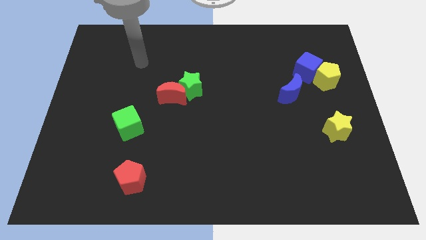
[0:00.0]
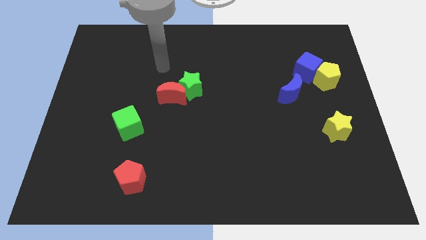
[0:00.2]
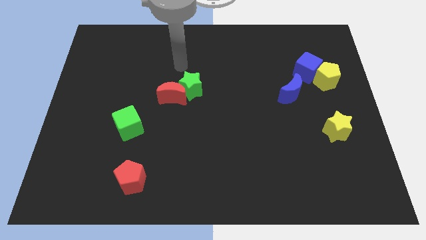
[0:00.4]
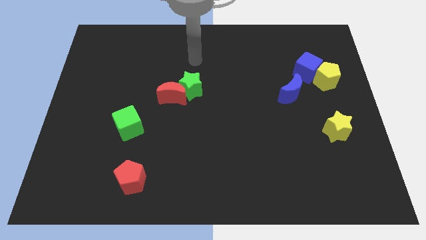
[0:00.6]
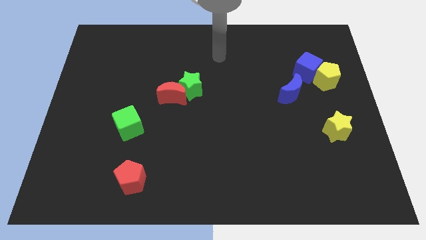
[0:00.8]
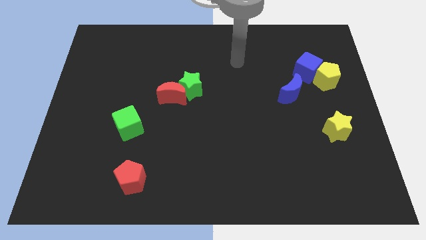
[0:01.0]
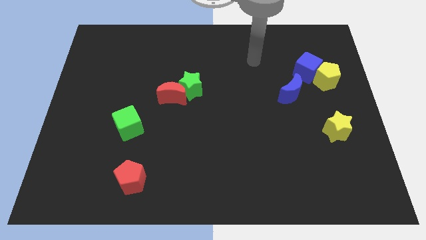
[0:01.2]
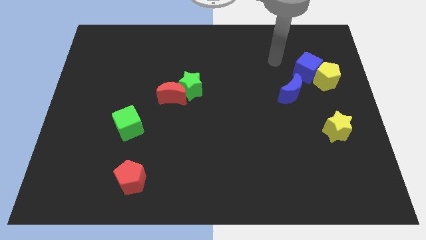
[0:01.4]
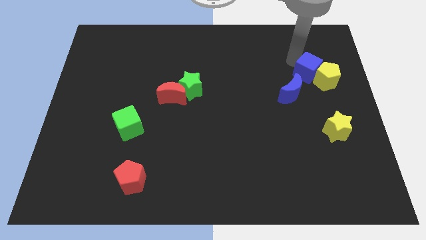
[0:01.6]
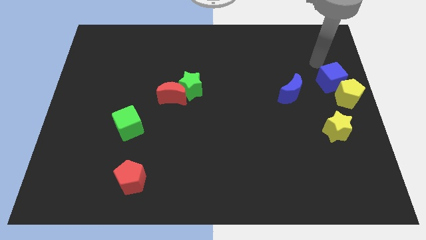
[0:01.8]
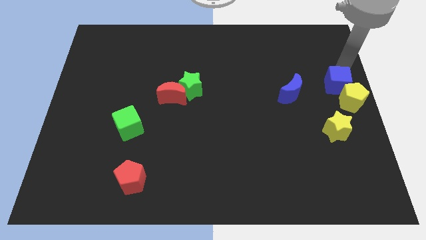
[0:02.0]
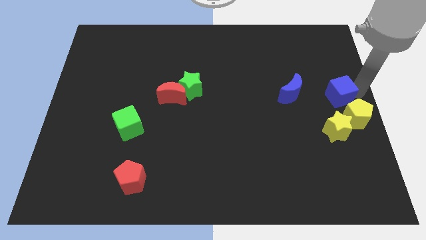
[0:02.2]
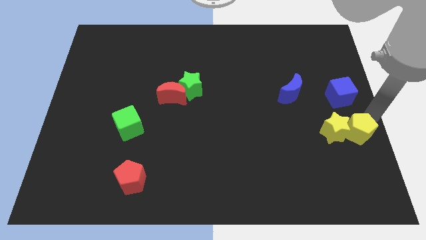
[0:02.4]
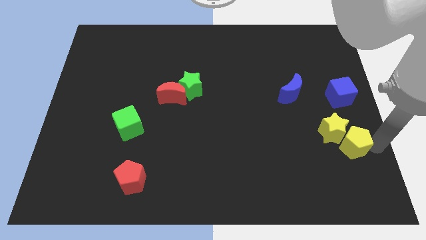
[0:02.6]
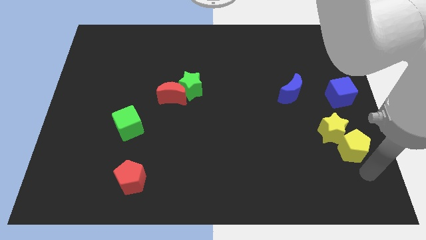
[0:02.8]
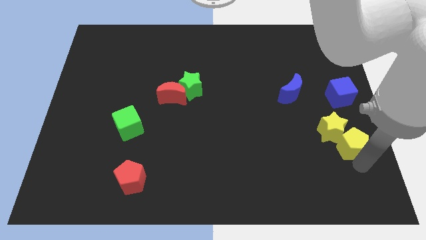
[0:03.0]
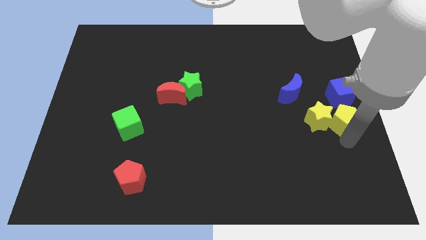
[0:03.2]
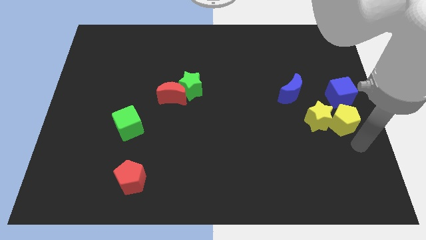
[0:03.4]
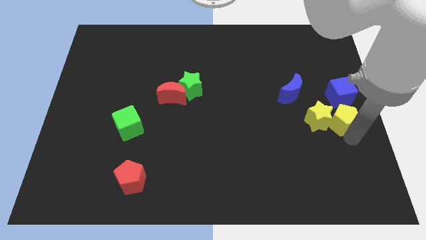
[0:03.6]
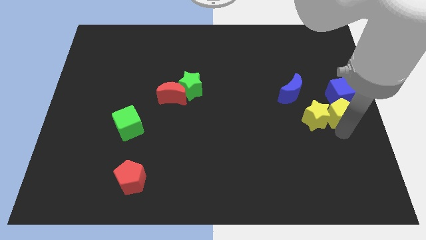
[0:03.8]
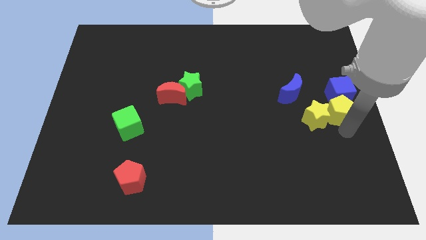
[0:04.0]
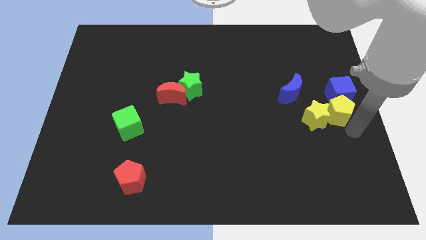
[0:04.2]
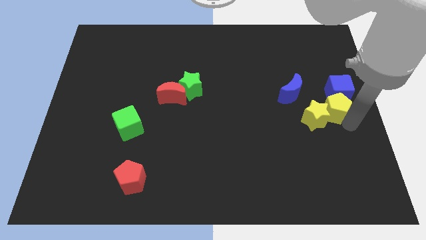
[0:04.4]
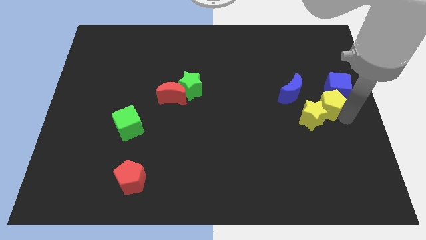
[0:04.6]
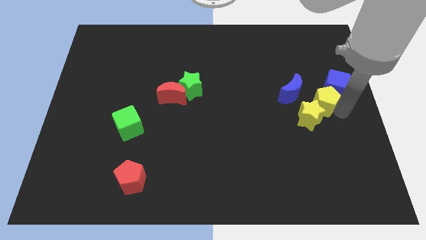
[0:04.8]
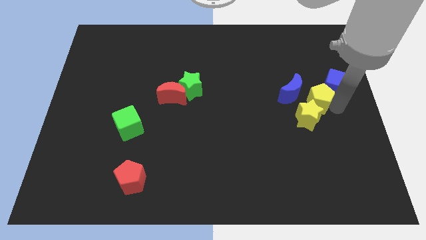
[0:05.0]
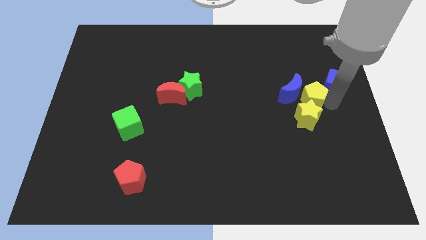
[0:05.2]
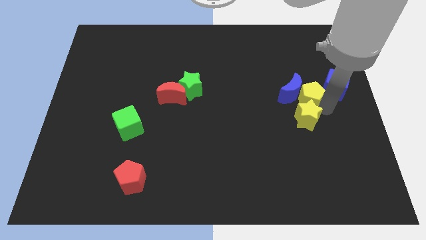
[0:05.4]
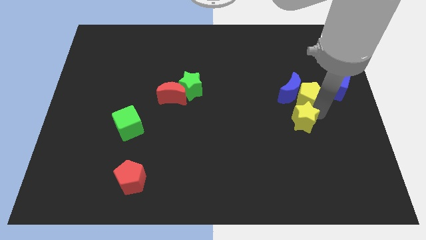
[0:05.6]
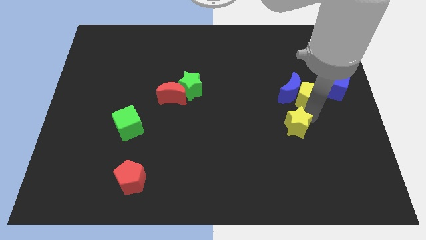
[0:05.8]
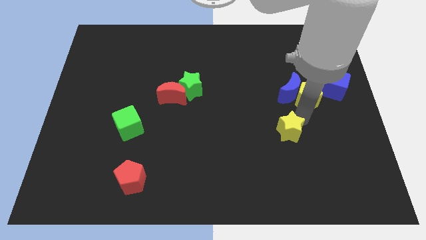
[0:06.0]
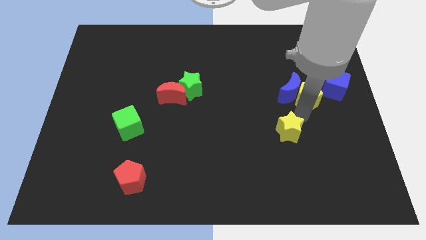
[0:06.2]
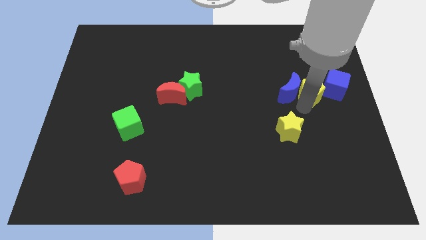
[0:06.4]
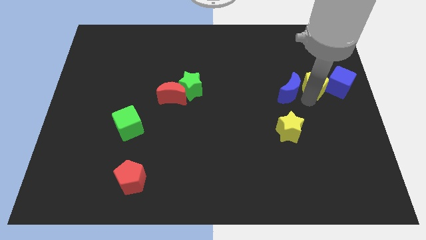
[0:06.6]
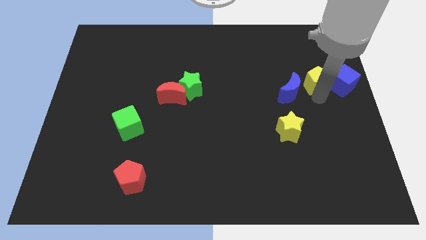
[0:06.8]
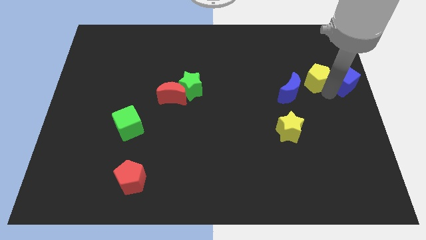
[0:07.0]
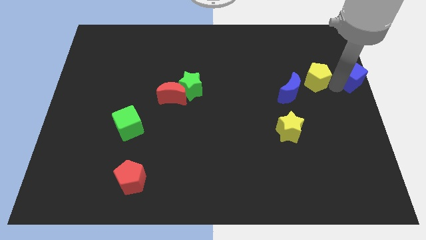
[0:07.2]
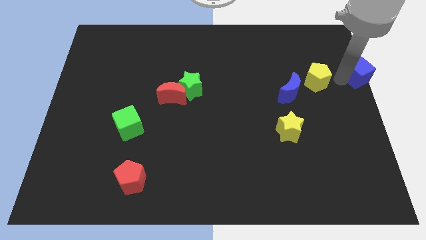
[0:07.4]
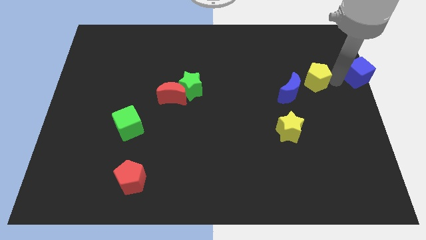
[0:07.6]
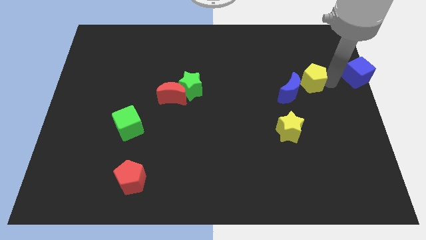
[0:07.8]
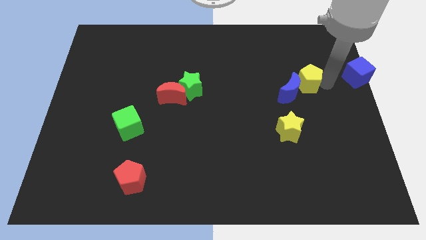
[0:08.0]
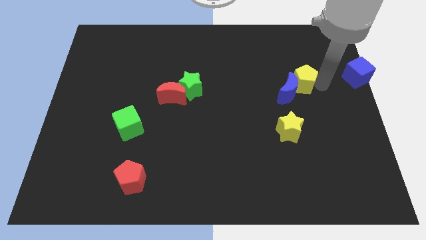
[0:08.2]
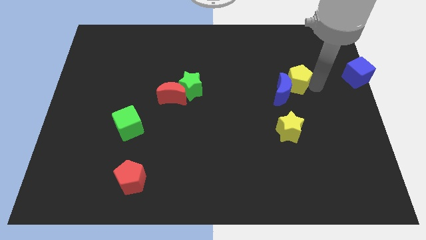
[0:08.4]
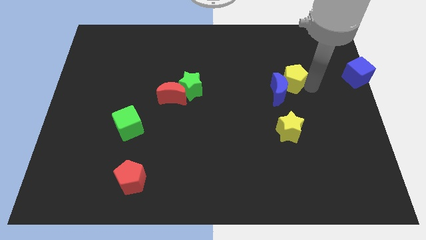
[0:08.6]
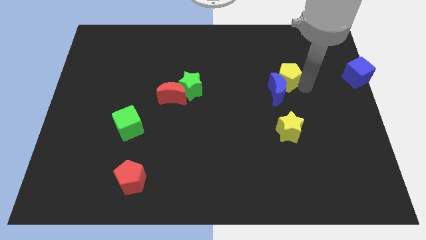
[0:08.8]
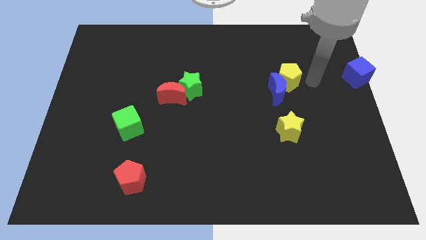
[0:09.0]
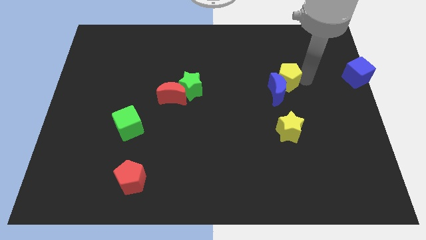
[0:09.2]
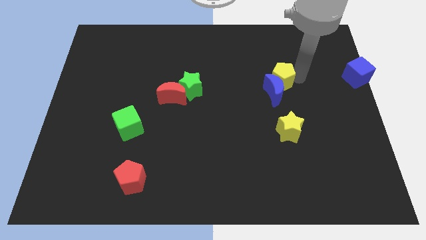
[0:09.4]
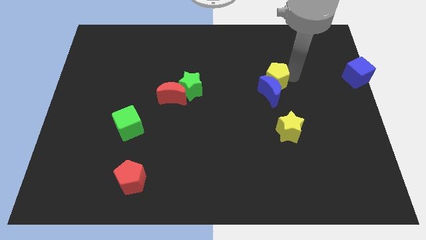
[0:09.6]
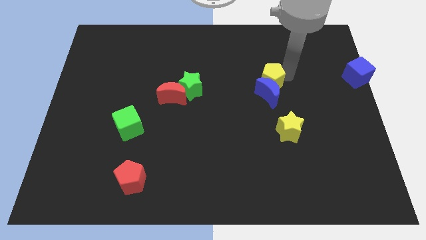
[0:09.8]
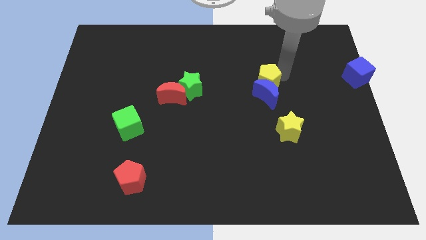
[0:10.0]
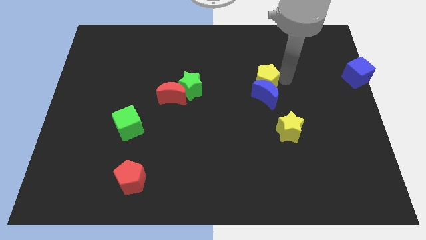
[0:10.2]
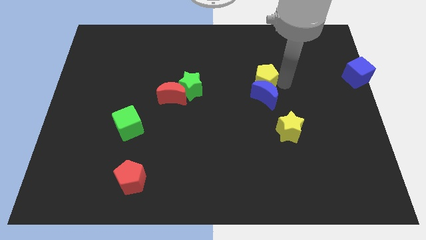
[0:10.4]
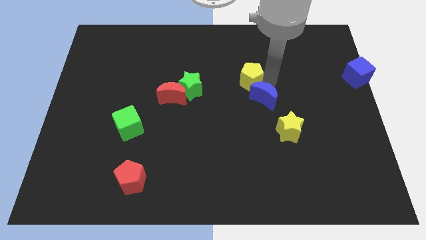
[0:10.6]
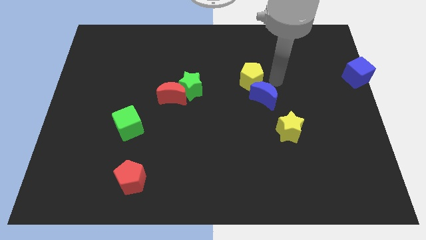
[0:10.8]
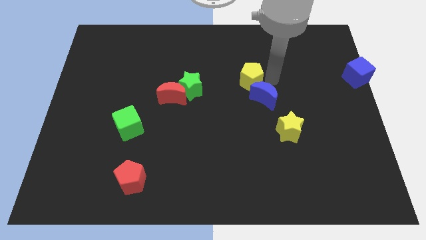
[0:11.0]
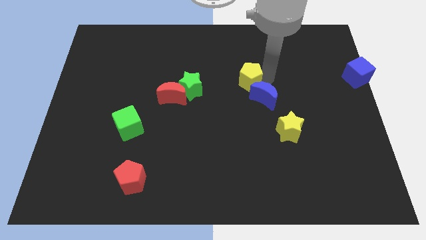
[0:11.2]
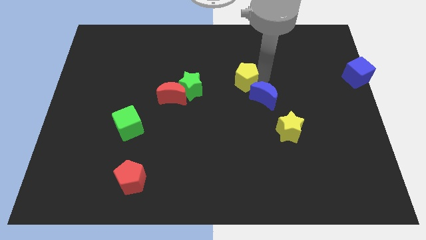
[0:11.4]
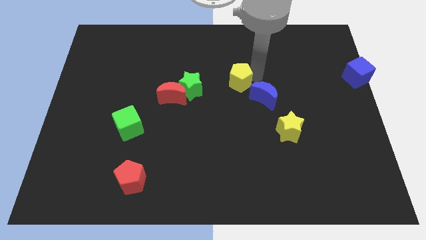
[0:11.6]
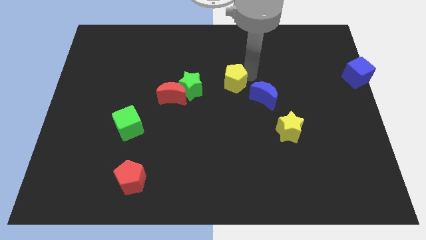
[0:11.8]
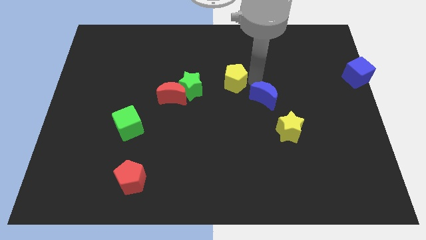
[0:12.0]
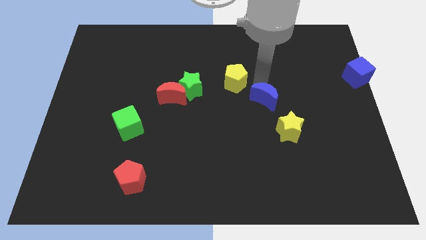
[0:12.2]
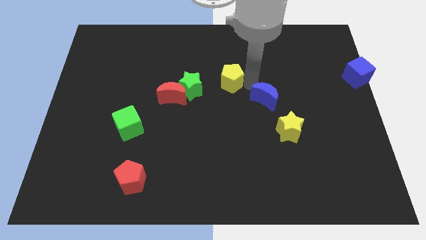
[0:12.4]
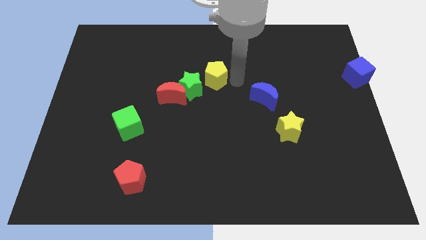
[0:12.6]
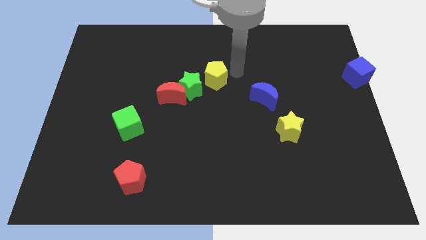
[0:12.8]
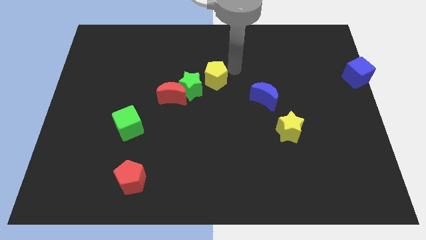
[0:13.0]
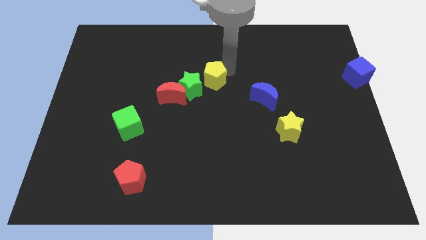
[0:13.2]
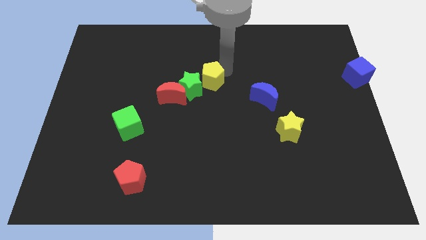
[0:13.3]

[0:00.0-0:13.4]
slide the yellow pentagon next to the green star

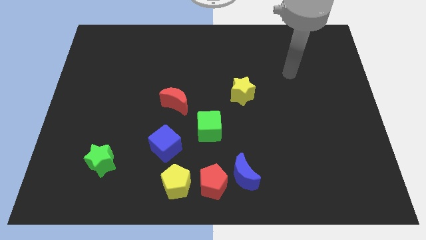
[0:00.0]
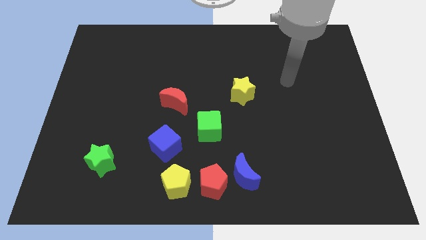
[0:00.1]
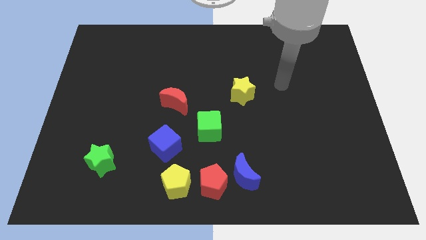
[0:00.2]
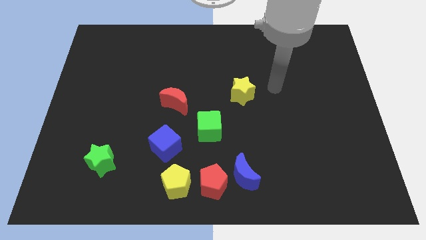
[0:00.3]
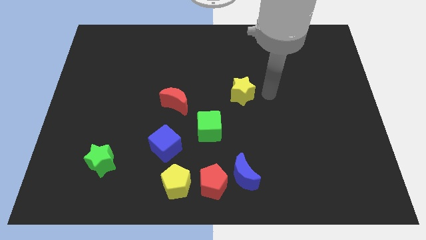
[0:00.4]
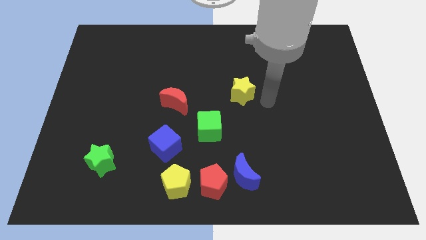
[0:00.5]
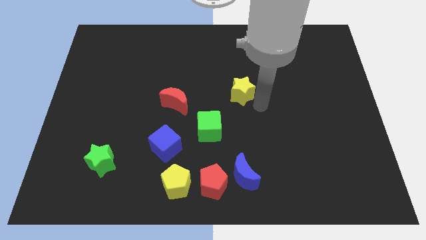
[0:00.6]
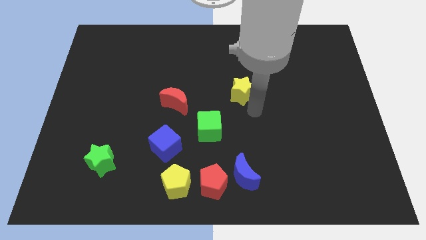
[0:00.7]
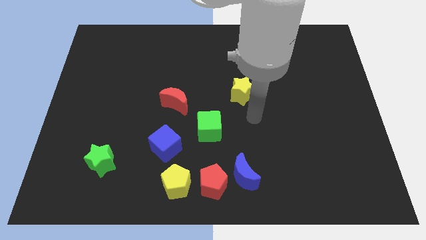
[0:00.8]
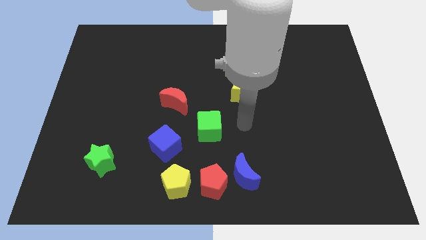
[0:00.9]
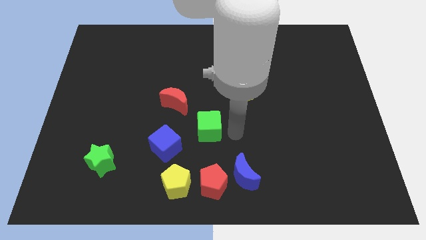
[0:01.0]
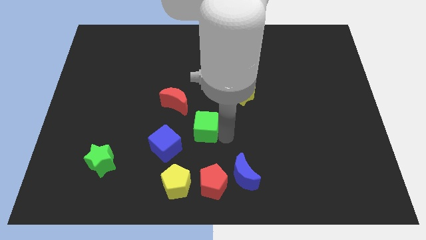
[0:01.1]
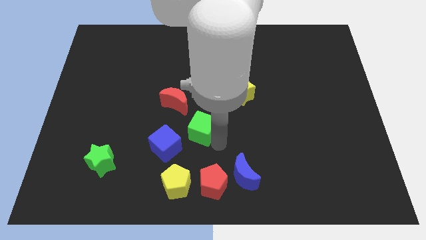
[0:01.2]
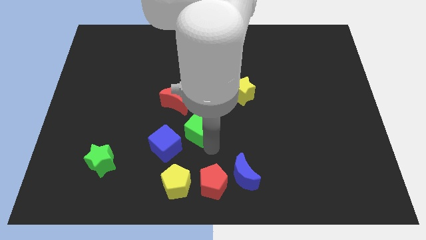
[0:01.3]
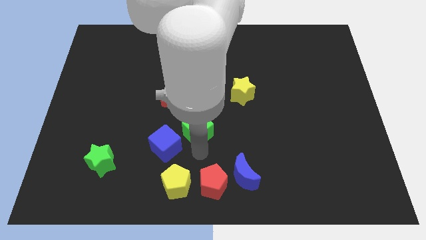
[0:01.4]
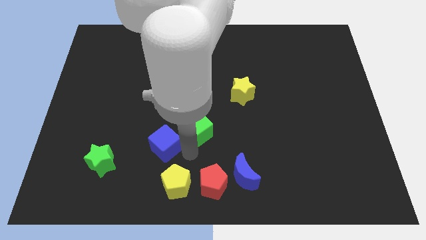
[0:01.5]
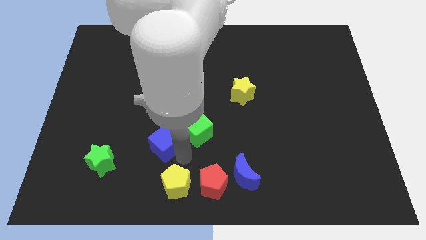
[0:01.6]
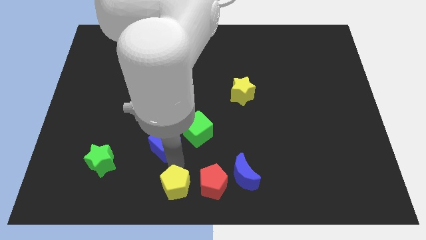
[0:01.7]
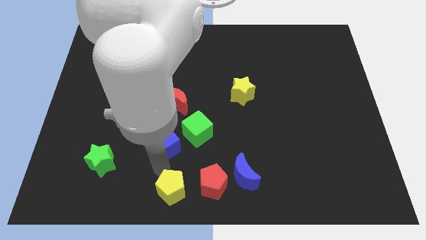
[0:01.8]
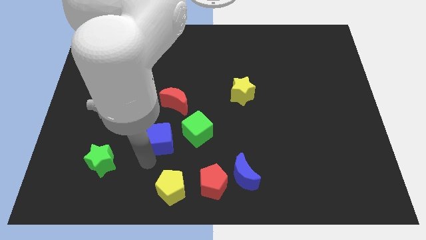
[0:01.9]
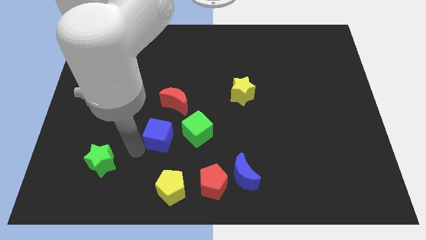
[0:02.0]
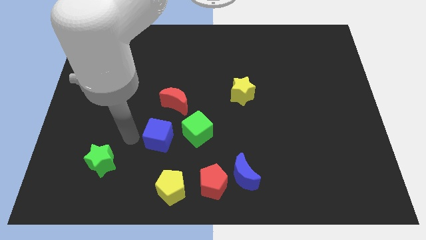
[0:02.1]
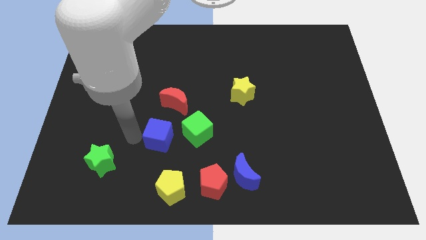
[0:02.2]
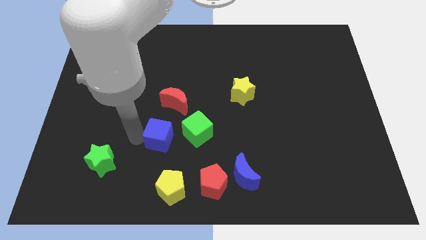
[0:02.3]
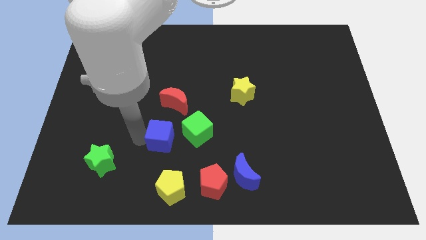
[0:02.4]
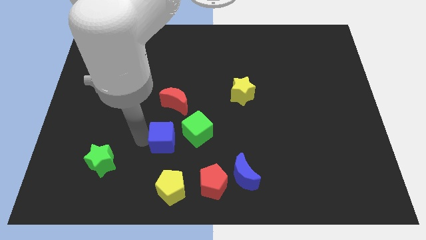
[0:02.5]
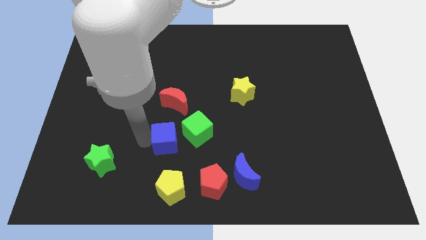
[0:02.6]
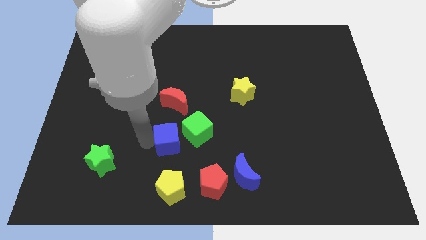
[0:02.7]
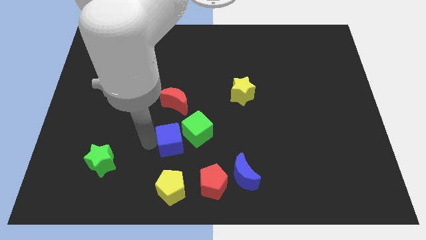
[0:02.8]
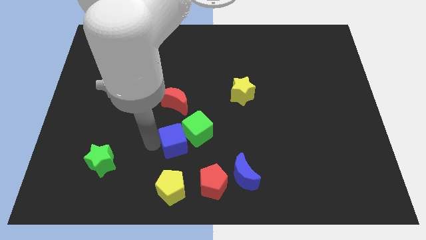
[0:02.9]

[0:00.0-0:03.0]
slide the blue cube next to the green cube
